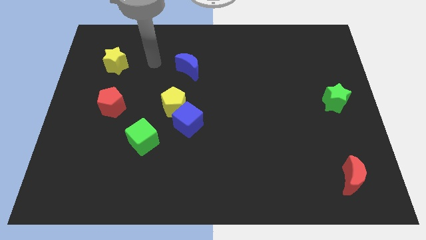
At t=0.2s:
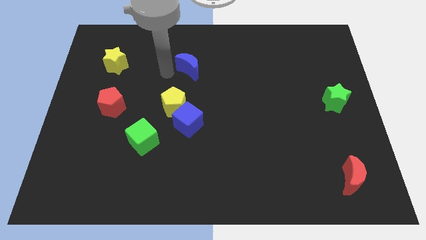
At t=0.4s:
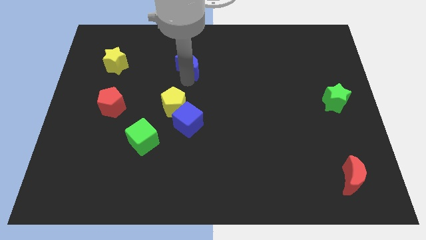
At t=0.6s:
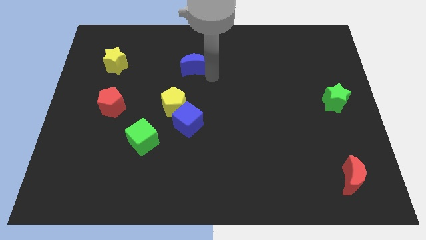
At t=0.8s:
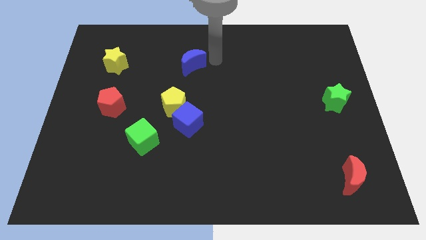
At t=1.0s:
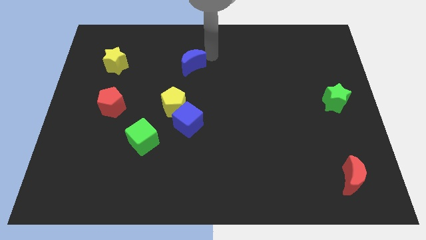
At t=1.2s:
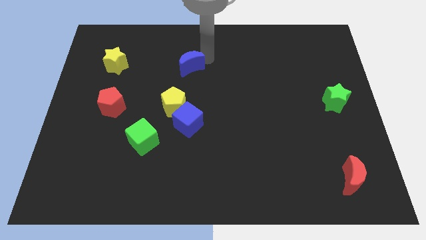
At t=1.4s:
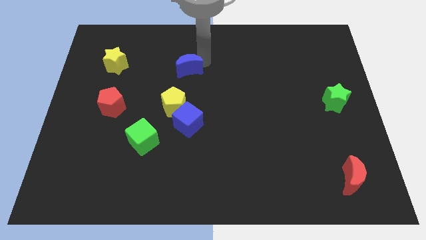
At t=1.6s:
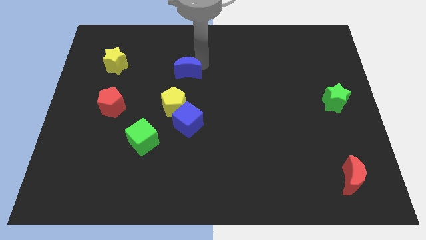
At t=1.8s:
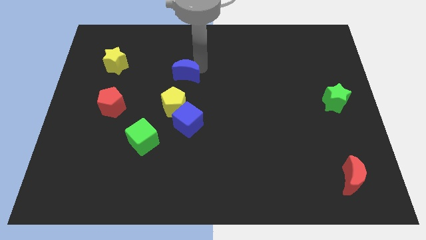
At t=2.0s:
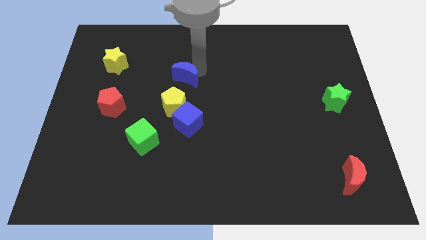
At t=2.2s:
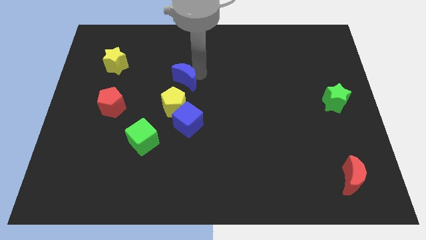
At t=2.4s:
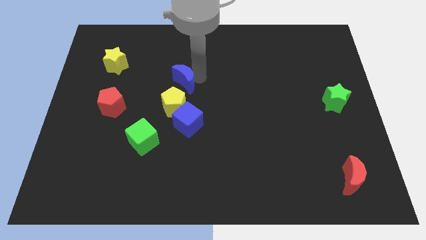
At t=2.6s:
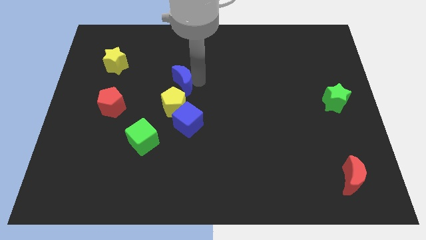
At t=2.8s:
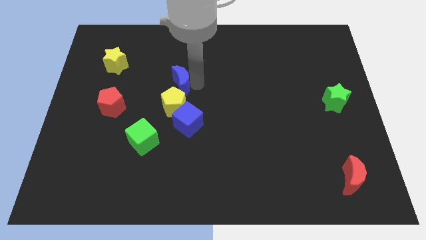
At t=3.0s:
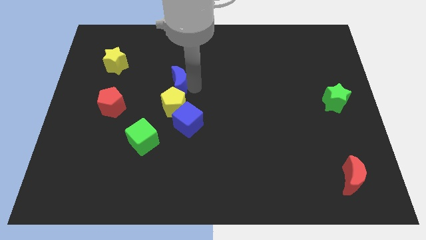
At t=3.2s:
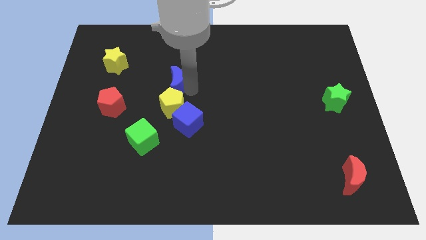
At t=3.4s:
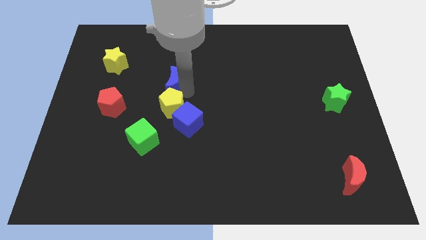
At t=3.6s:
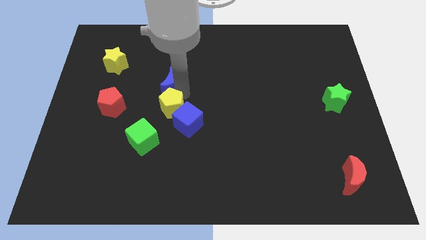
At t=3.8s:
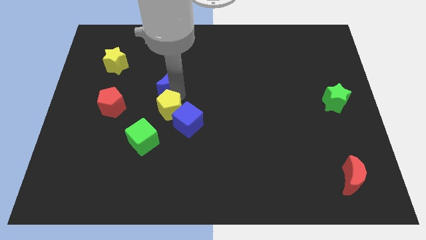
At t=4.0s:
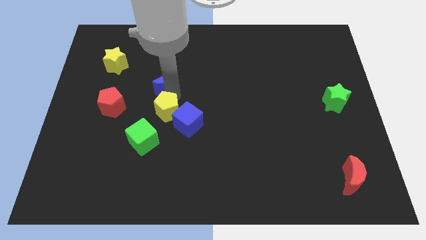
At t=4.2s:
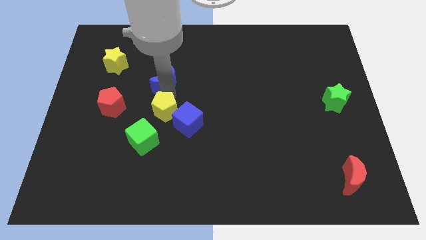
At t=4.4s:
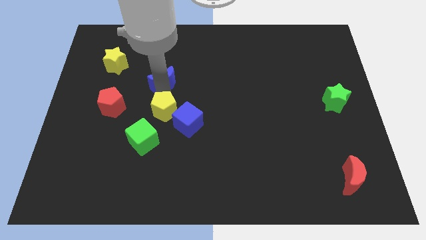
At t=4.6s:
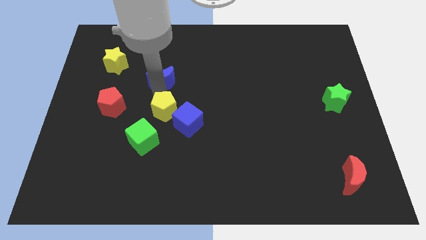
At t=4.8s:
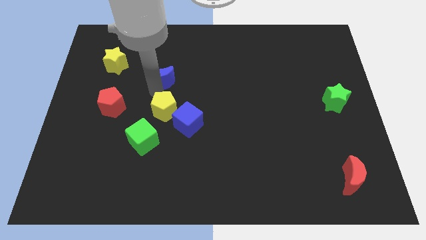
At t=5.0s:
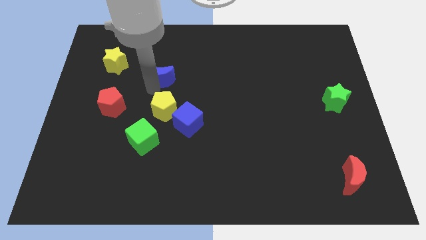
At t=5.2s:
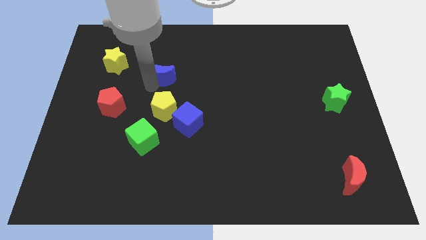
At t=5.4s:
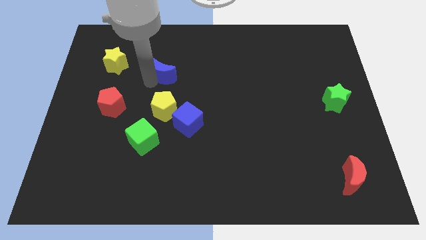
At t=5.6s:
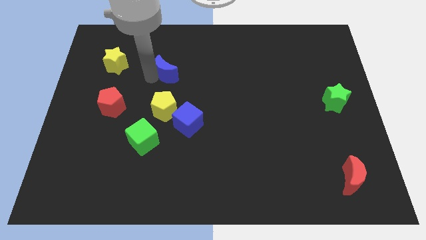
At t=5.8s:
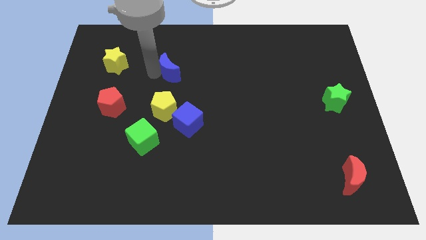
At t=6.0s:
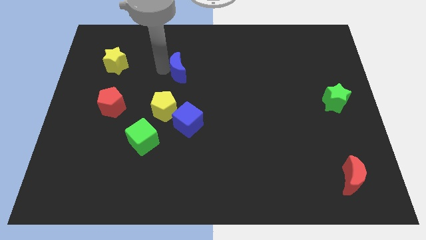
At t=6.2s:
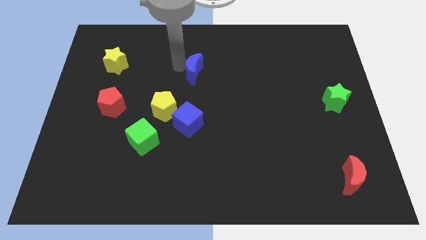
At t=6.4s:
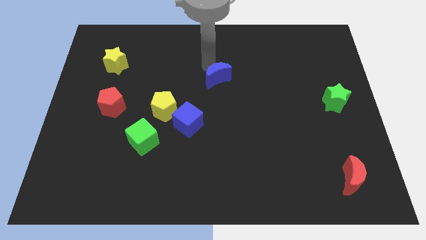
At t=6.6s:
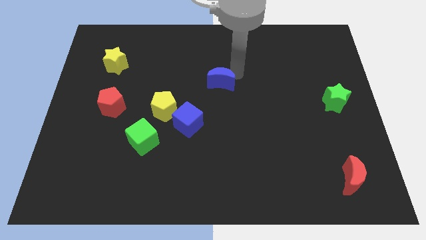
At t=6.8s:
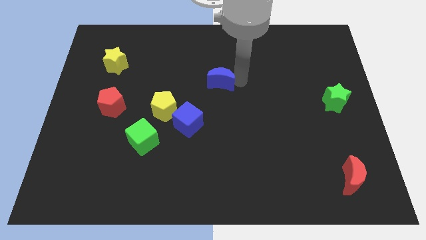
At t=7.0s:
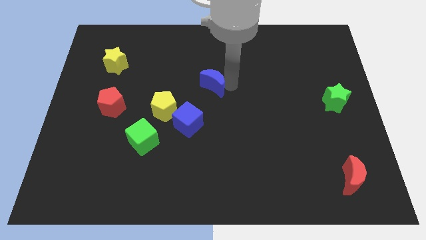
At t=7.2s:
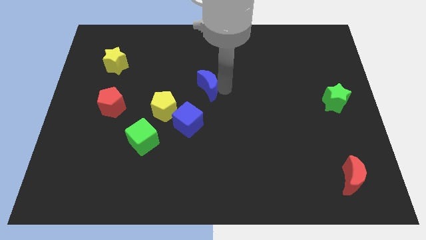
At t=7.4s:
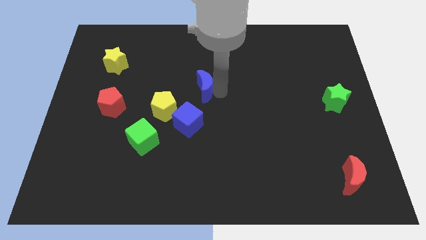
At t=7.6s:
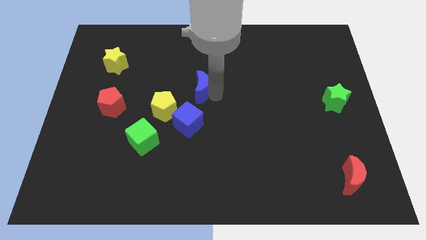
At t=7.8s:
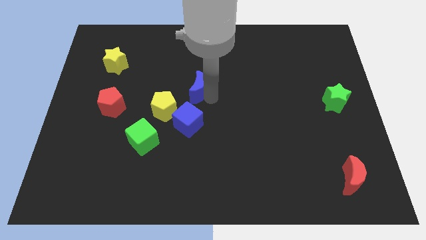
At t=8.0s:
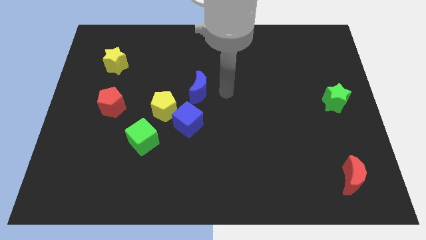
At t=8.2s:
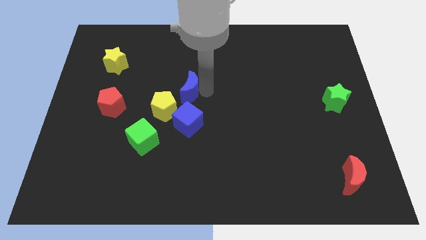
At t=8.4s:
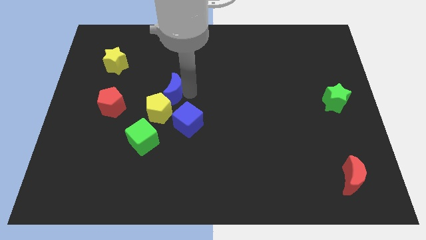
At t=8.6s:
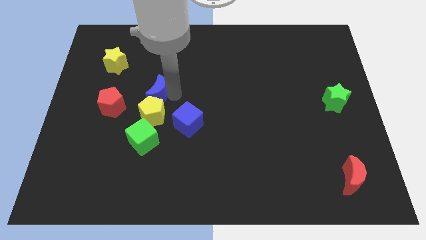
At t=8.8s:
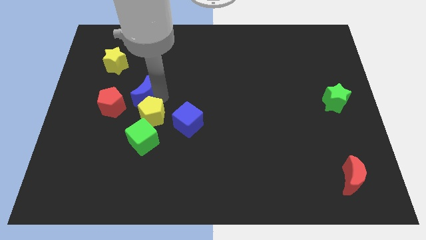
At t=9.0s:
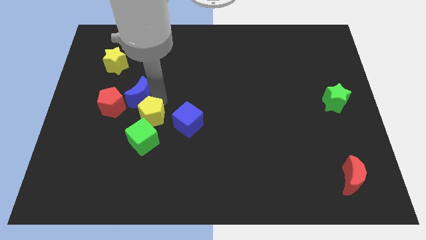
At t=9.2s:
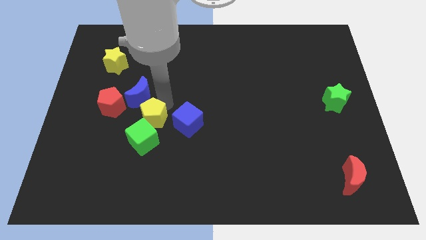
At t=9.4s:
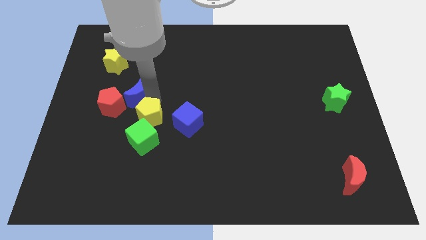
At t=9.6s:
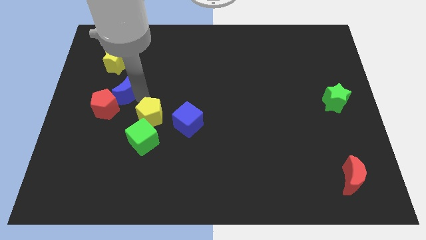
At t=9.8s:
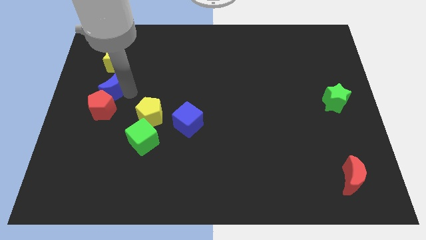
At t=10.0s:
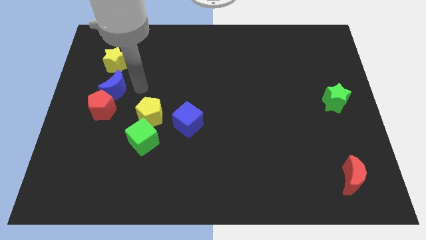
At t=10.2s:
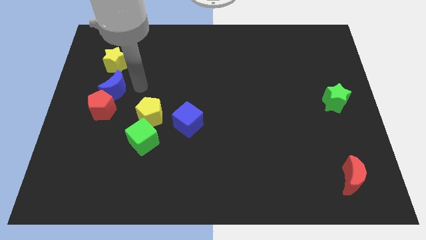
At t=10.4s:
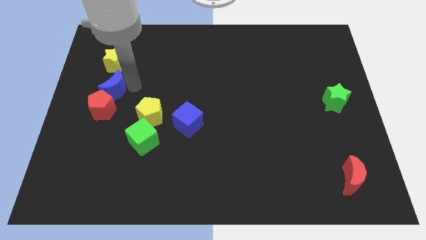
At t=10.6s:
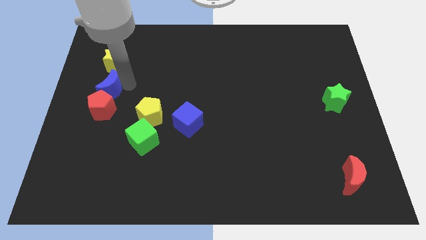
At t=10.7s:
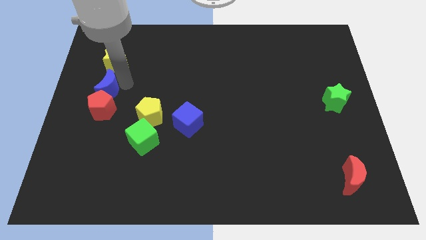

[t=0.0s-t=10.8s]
slide the blue moon to the center left

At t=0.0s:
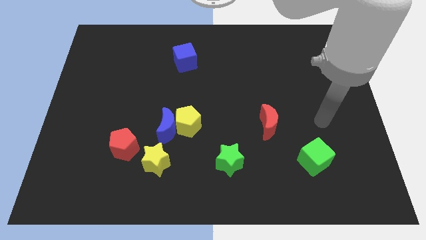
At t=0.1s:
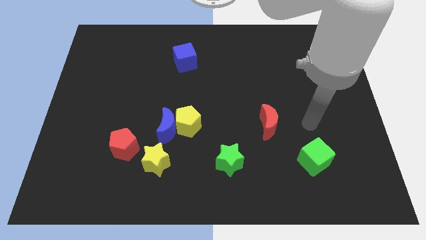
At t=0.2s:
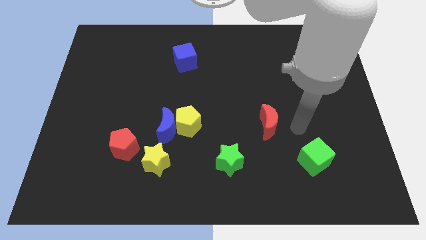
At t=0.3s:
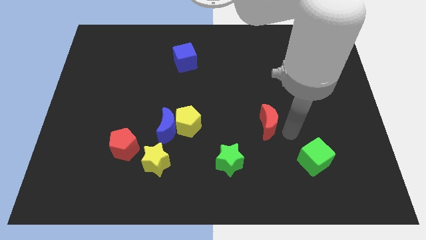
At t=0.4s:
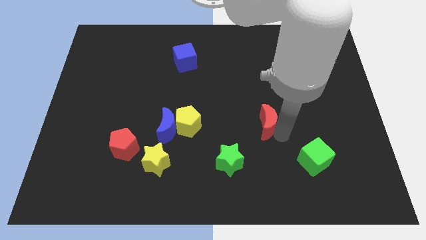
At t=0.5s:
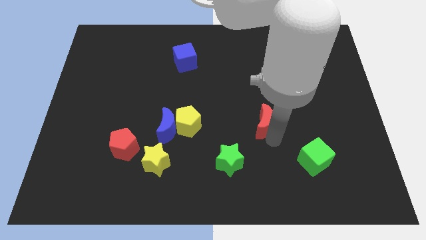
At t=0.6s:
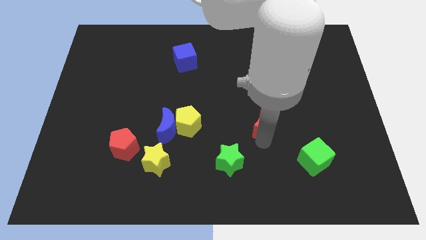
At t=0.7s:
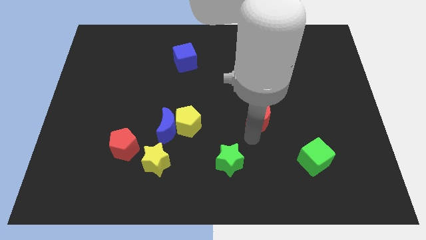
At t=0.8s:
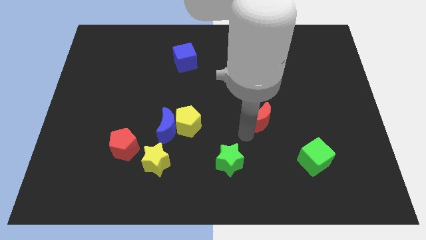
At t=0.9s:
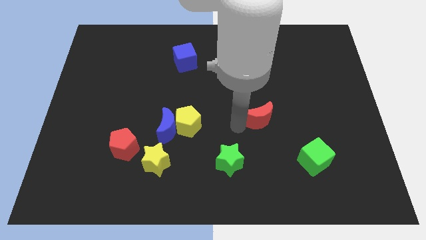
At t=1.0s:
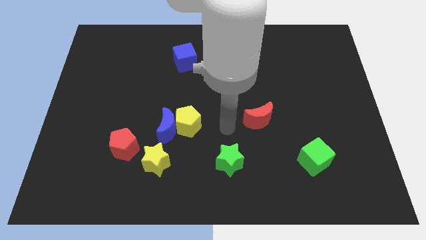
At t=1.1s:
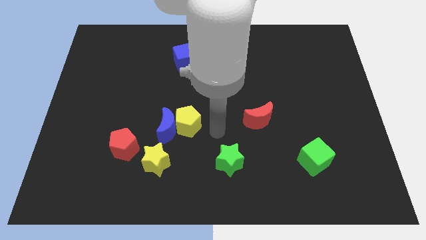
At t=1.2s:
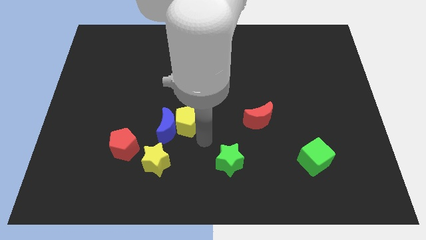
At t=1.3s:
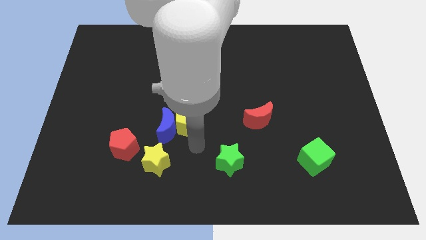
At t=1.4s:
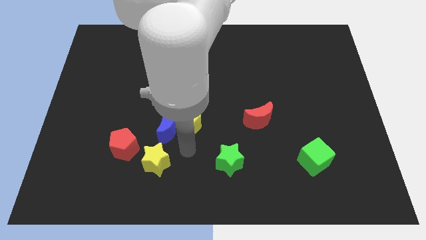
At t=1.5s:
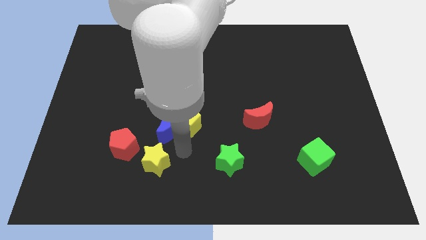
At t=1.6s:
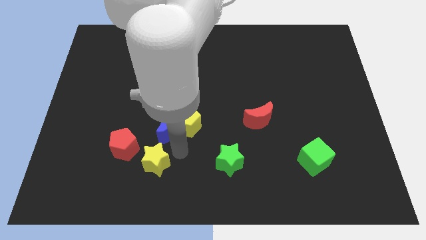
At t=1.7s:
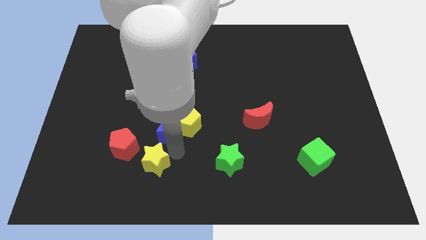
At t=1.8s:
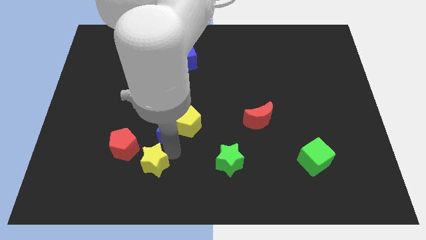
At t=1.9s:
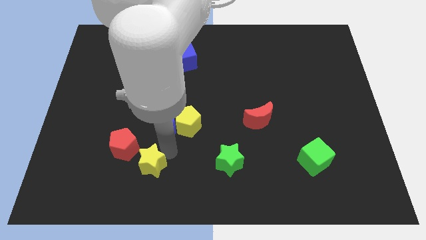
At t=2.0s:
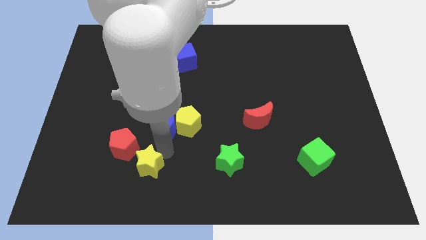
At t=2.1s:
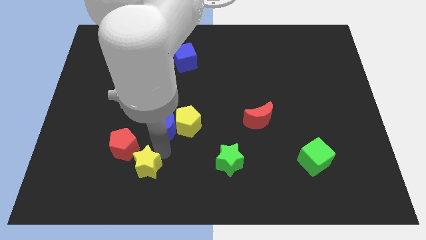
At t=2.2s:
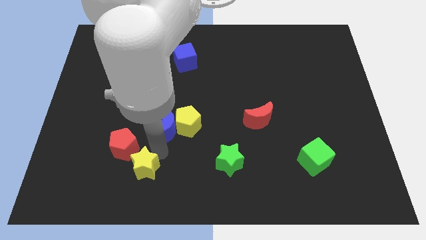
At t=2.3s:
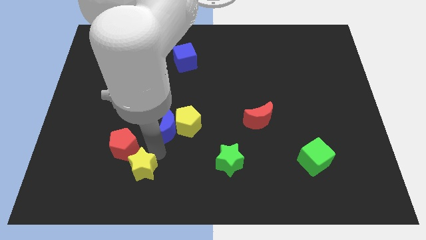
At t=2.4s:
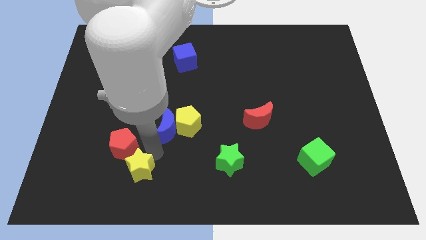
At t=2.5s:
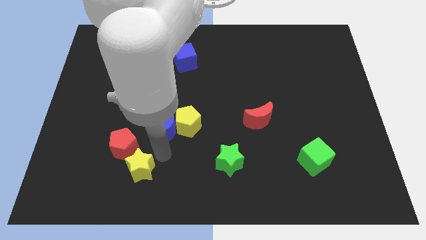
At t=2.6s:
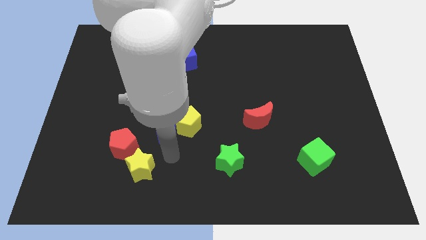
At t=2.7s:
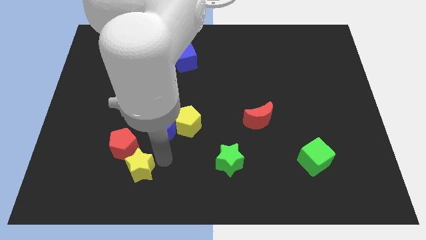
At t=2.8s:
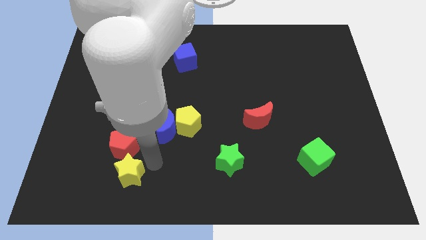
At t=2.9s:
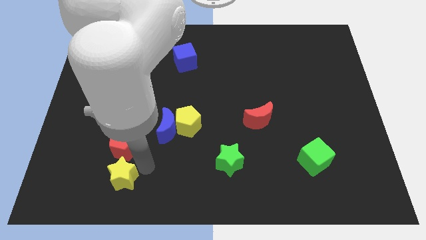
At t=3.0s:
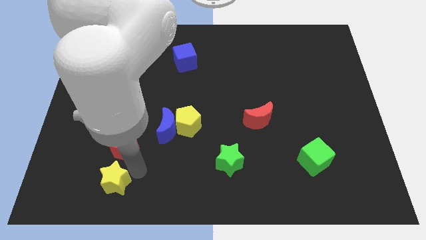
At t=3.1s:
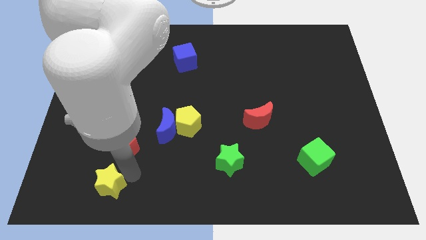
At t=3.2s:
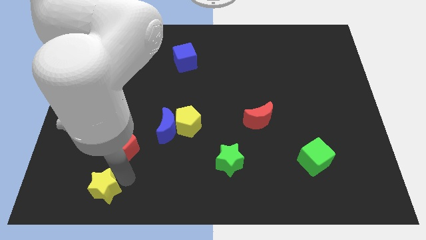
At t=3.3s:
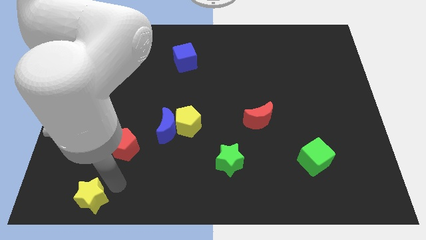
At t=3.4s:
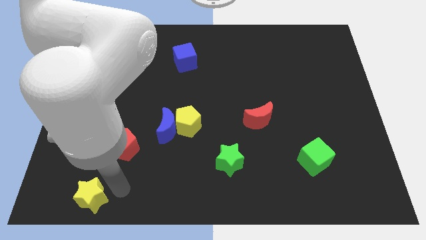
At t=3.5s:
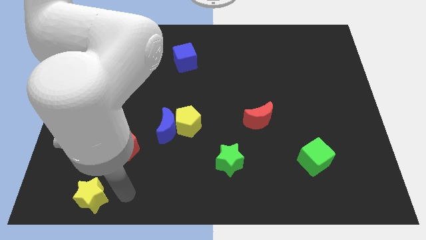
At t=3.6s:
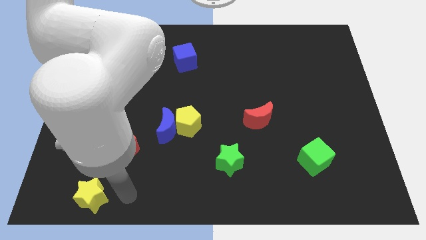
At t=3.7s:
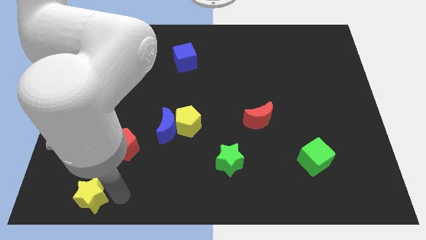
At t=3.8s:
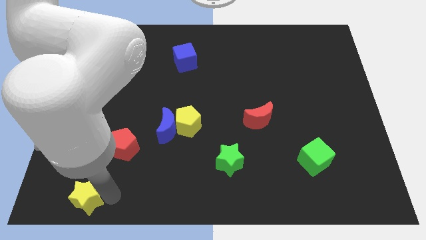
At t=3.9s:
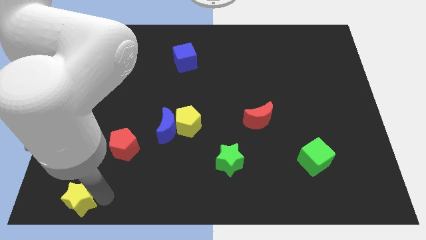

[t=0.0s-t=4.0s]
slide the yellow star to the bottom left of the board
